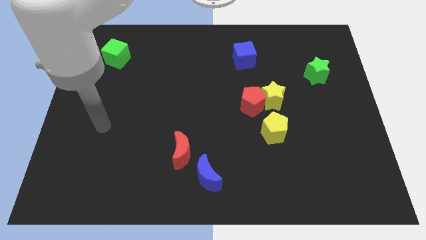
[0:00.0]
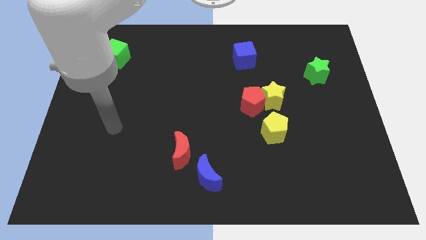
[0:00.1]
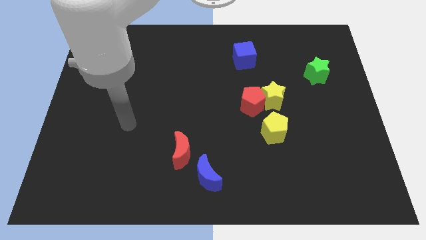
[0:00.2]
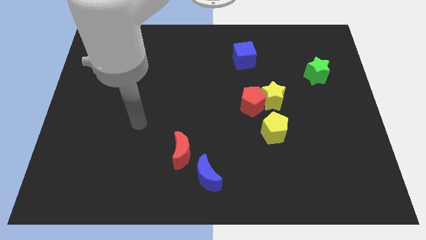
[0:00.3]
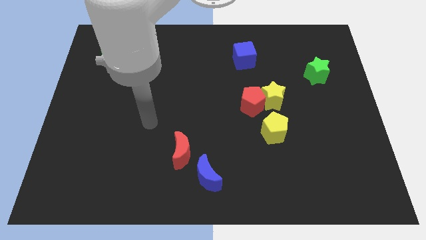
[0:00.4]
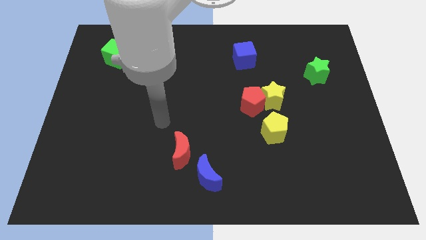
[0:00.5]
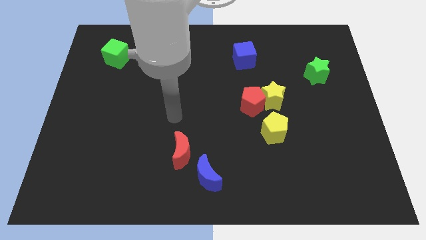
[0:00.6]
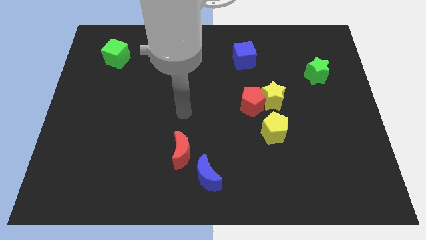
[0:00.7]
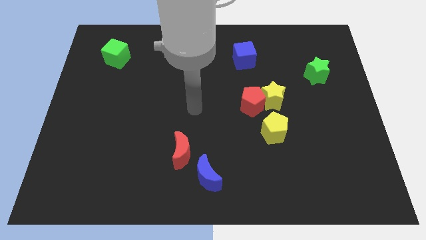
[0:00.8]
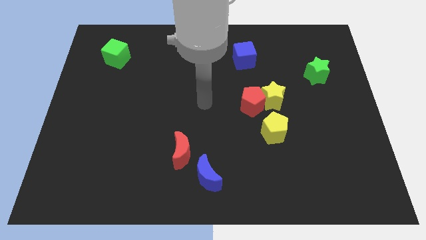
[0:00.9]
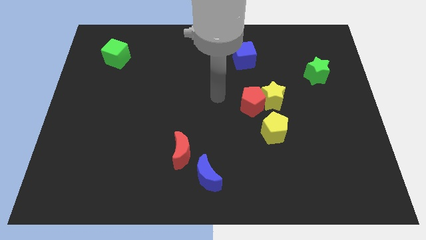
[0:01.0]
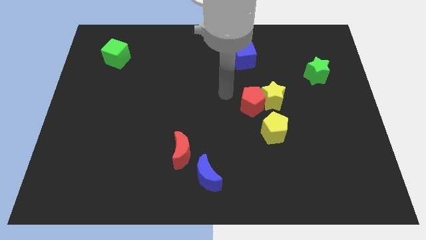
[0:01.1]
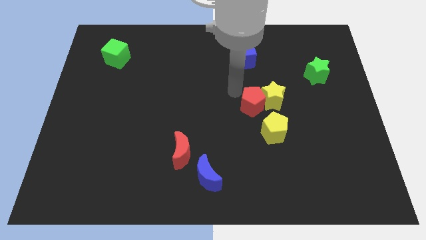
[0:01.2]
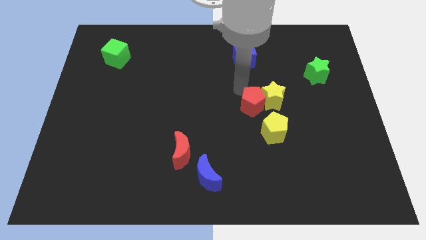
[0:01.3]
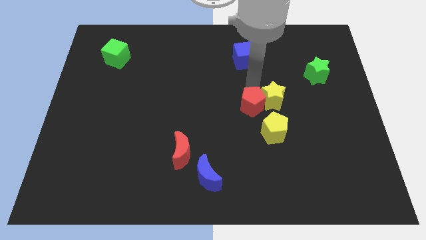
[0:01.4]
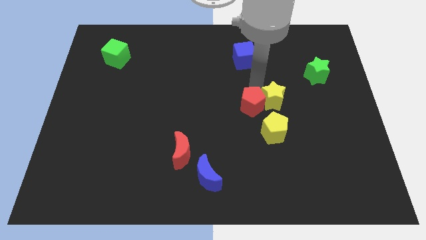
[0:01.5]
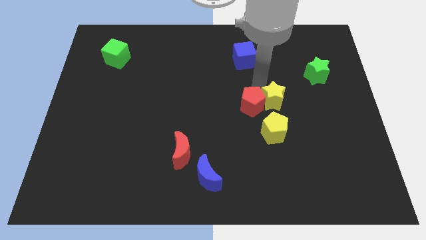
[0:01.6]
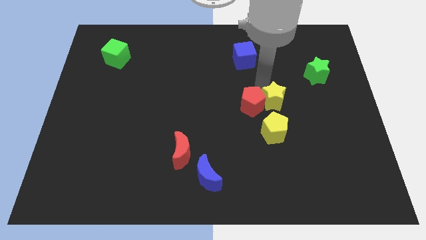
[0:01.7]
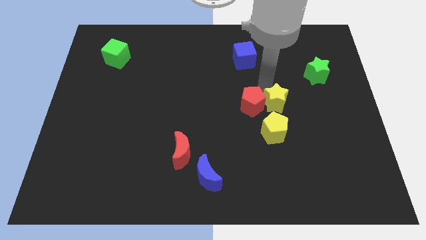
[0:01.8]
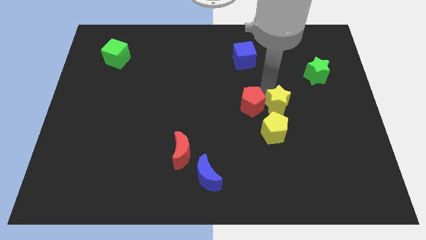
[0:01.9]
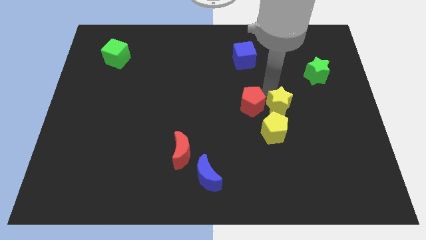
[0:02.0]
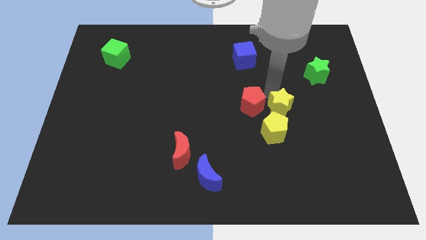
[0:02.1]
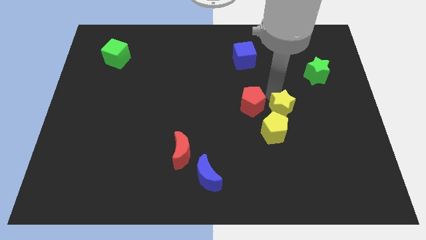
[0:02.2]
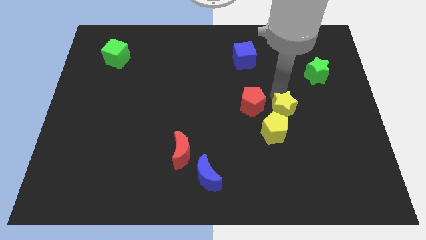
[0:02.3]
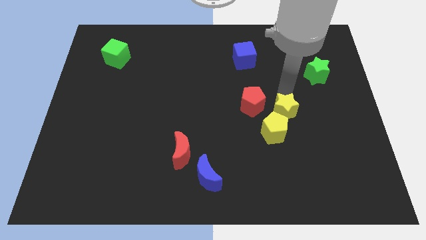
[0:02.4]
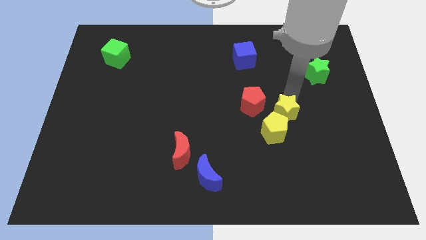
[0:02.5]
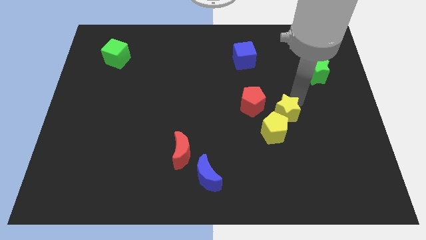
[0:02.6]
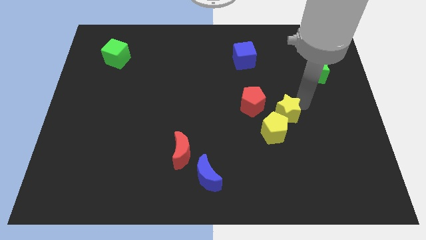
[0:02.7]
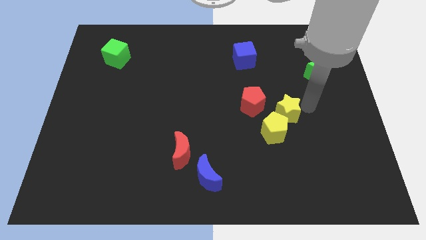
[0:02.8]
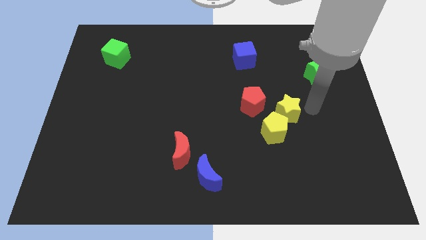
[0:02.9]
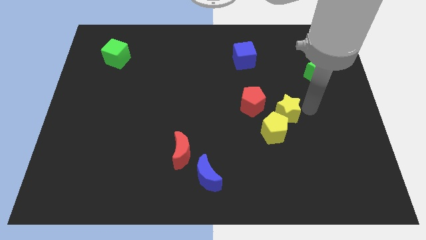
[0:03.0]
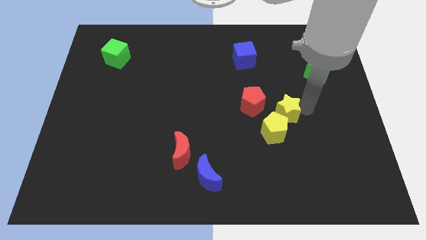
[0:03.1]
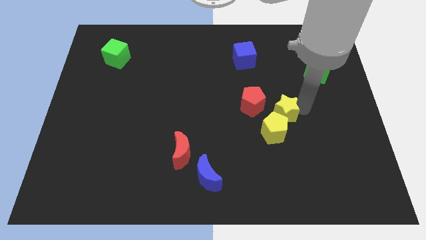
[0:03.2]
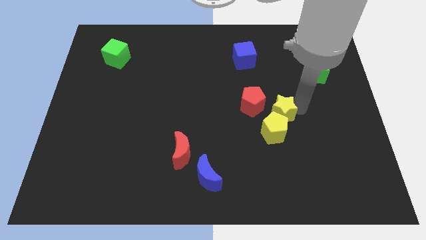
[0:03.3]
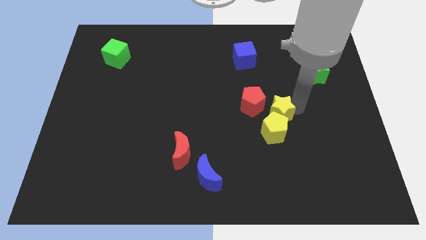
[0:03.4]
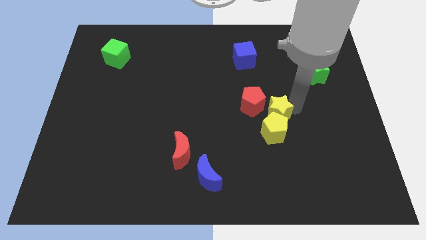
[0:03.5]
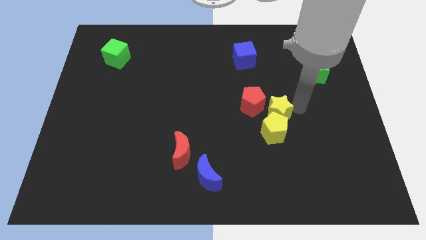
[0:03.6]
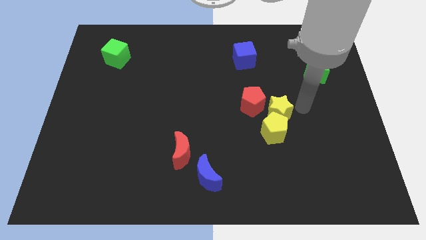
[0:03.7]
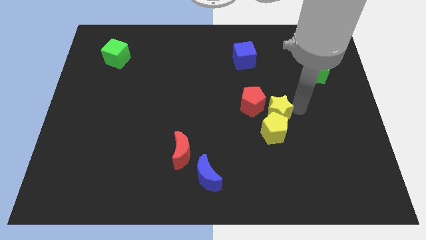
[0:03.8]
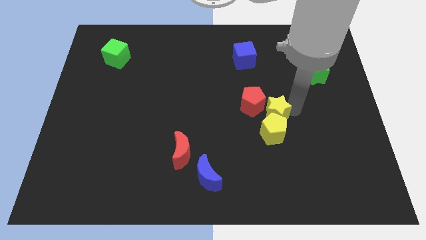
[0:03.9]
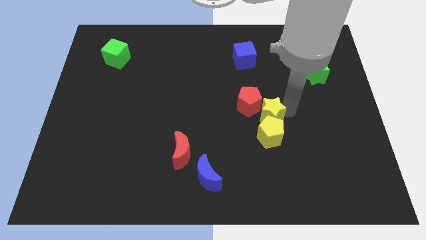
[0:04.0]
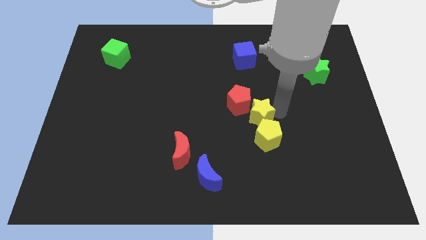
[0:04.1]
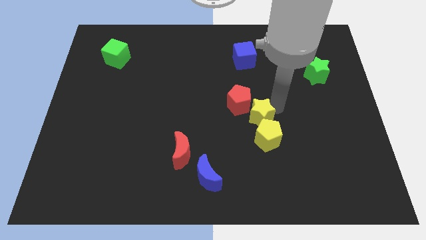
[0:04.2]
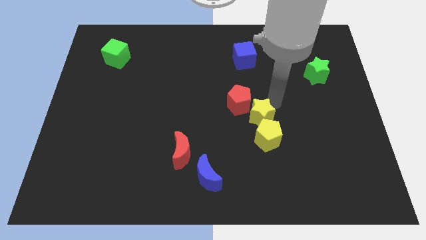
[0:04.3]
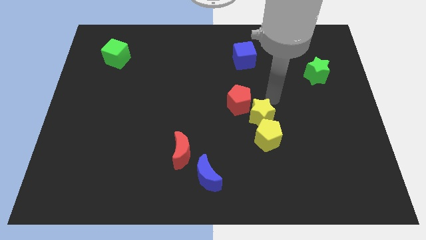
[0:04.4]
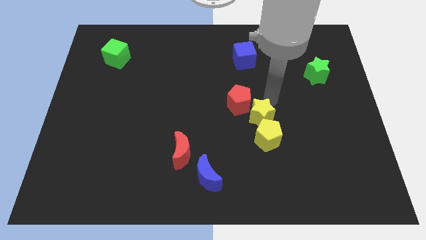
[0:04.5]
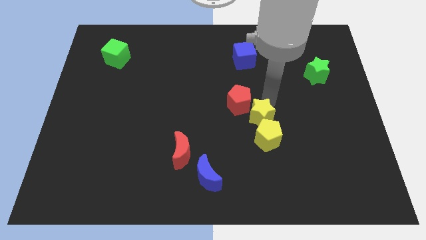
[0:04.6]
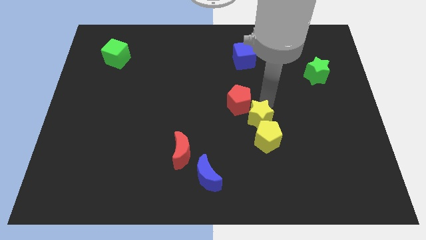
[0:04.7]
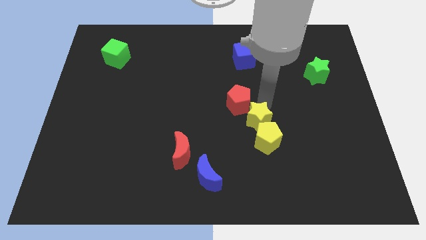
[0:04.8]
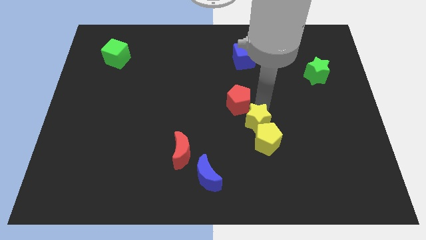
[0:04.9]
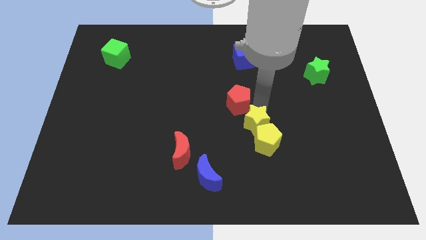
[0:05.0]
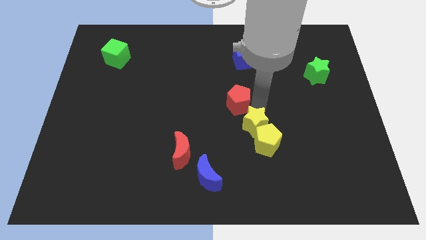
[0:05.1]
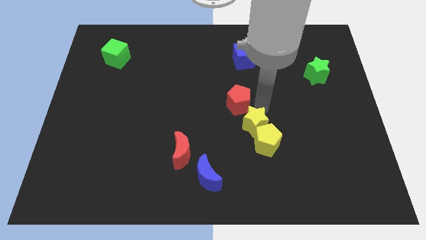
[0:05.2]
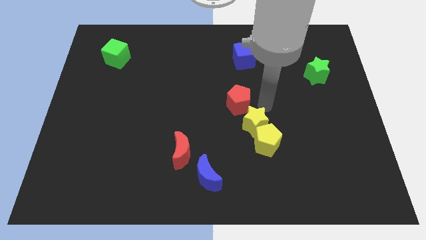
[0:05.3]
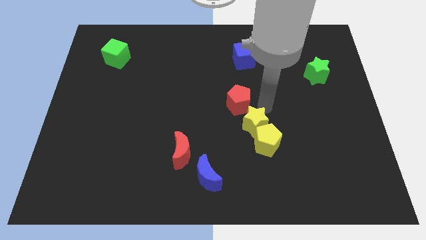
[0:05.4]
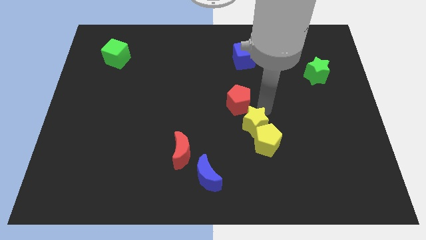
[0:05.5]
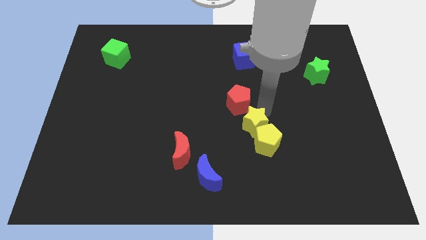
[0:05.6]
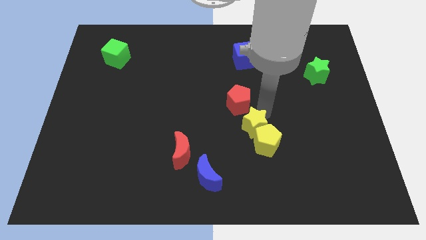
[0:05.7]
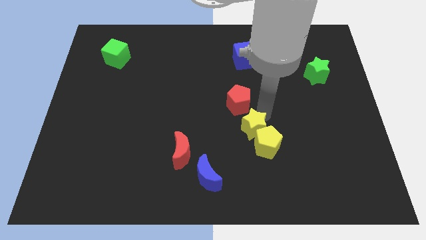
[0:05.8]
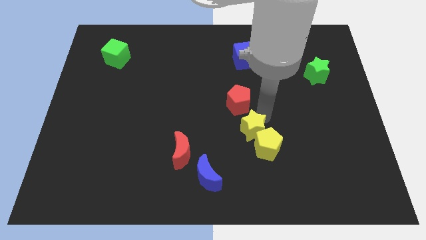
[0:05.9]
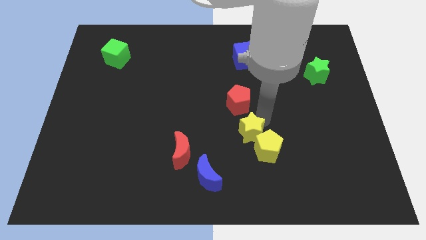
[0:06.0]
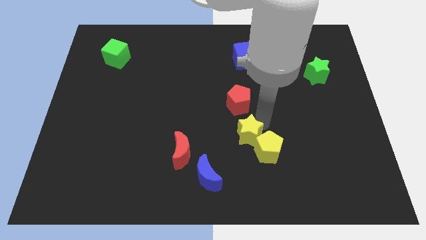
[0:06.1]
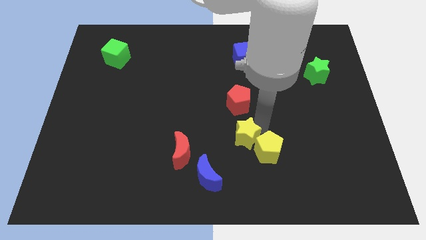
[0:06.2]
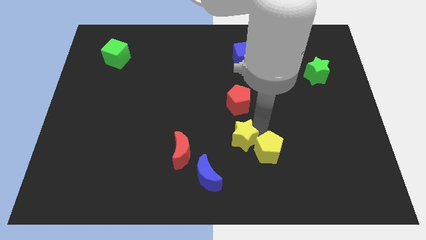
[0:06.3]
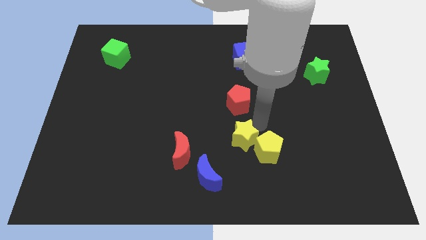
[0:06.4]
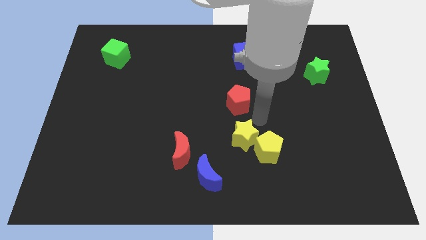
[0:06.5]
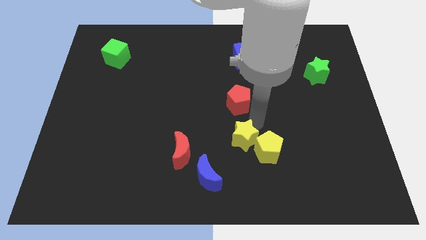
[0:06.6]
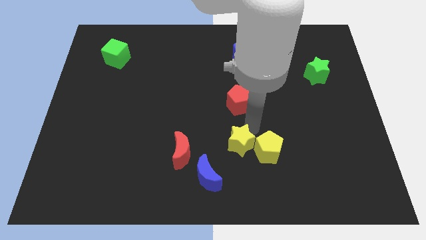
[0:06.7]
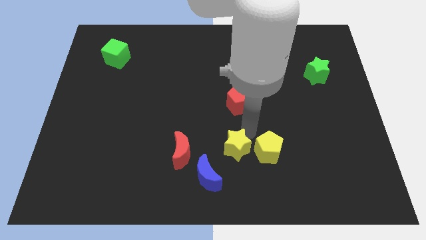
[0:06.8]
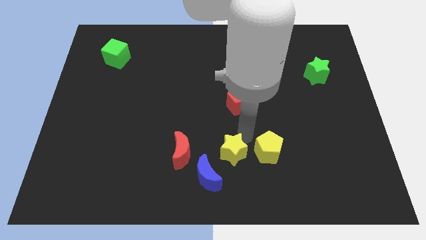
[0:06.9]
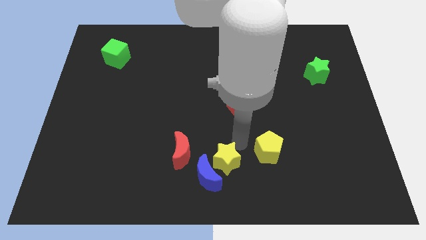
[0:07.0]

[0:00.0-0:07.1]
move the yellow star next to the blue moon

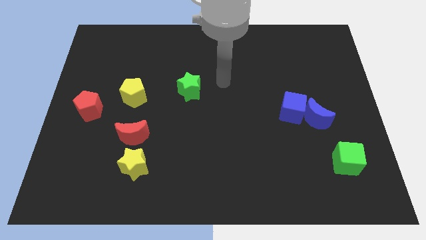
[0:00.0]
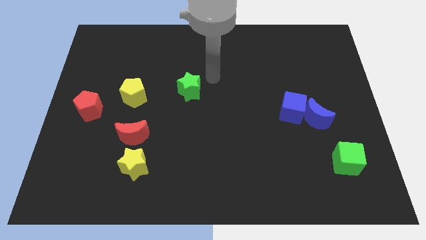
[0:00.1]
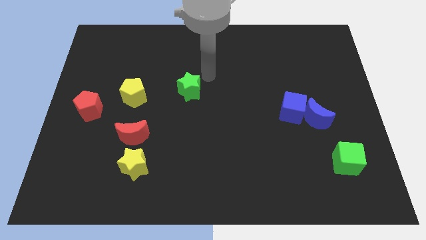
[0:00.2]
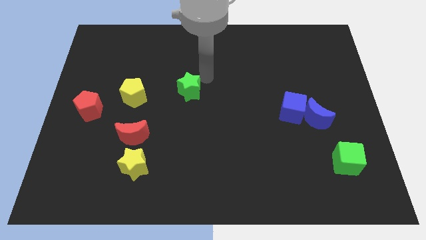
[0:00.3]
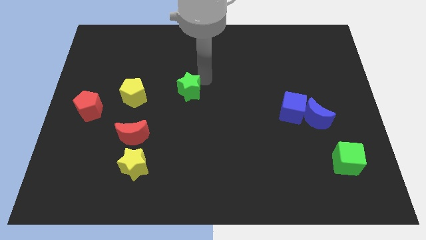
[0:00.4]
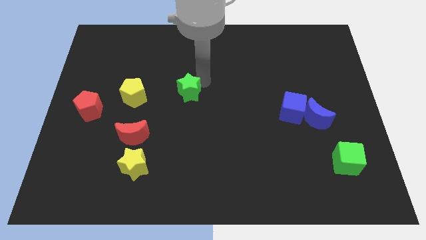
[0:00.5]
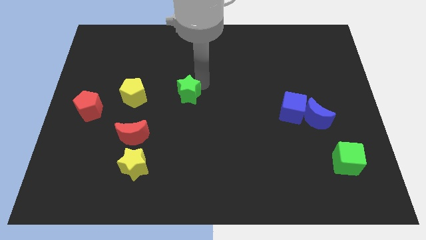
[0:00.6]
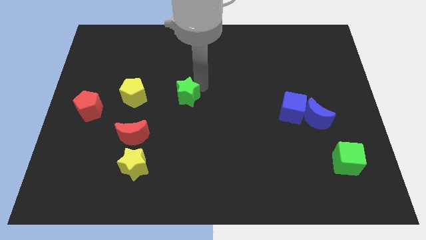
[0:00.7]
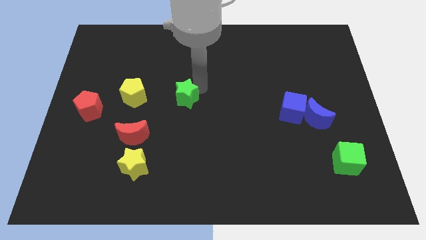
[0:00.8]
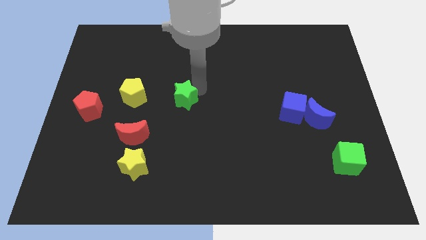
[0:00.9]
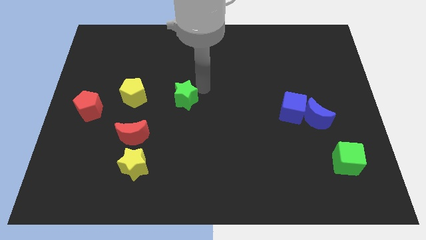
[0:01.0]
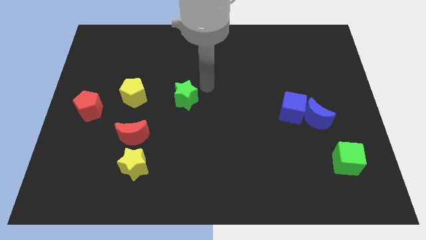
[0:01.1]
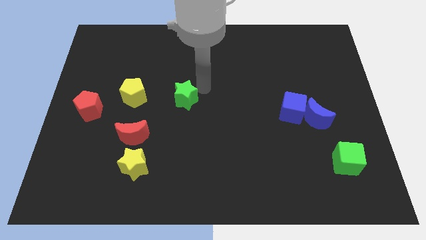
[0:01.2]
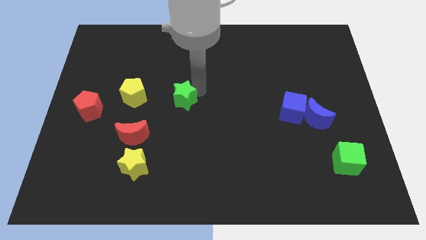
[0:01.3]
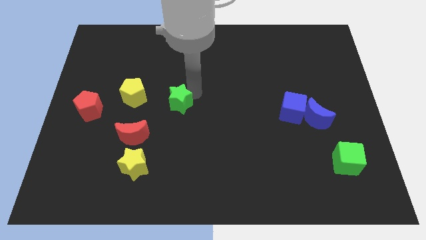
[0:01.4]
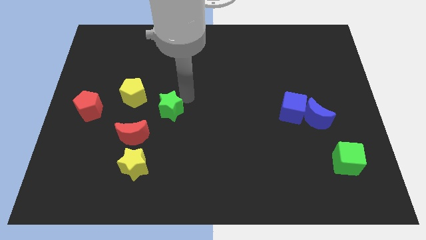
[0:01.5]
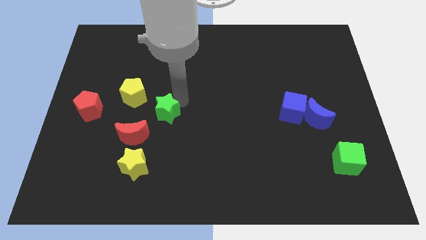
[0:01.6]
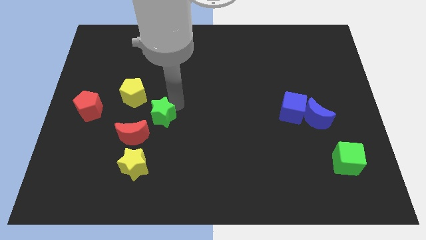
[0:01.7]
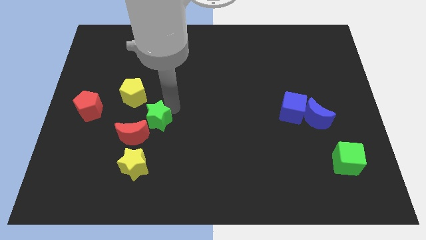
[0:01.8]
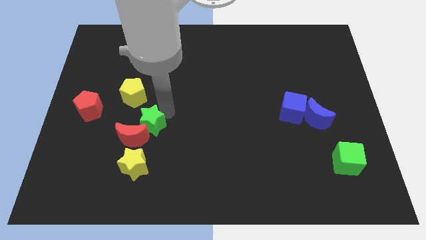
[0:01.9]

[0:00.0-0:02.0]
push the green star close to the red moon
